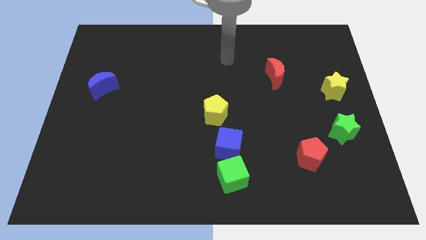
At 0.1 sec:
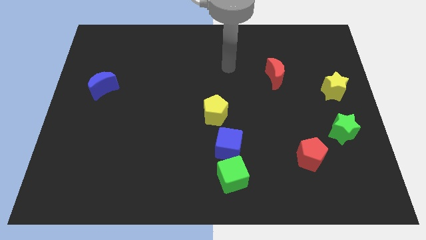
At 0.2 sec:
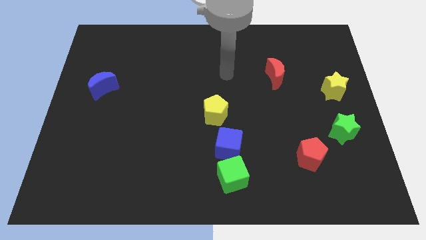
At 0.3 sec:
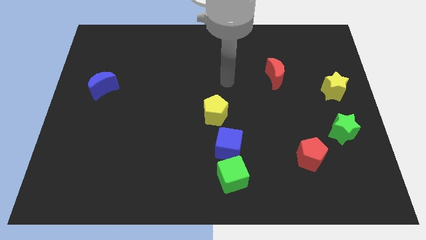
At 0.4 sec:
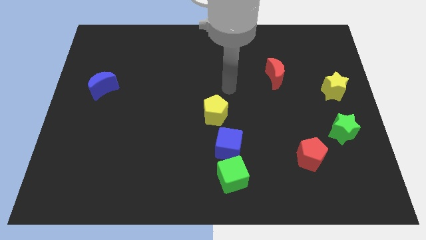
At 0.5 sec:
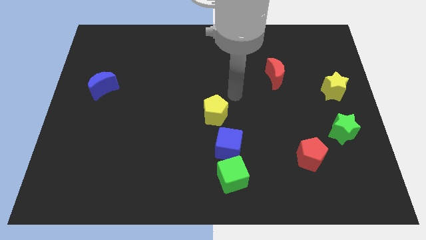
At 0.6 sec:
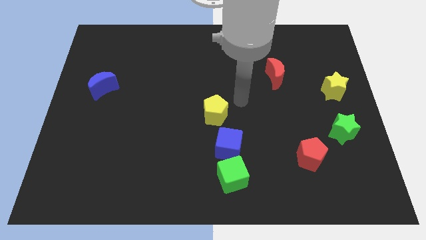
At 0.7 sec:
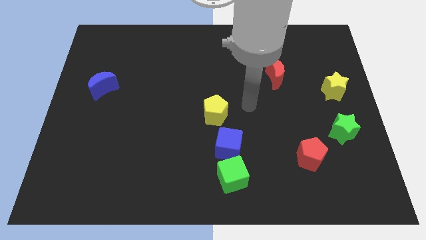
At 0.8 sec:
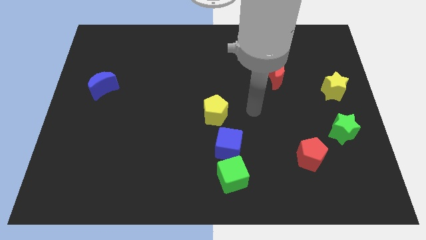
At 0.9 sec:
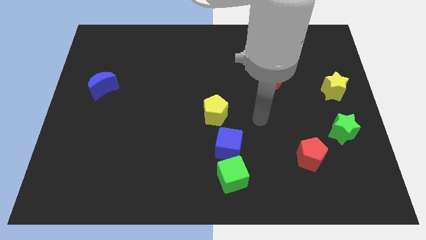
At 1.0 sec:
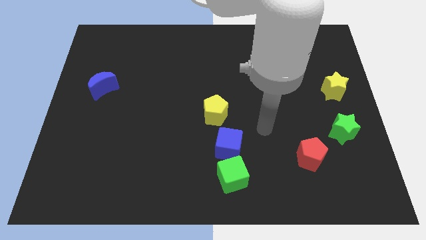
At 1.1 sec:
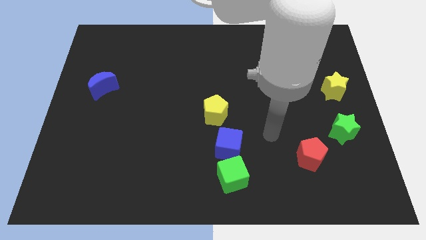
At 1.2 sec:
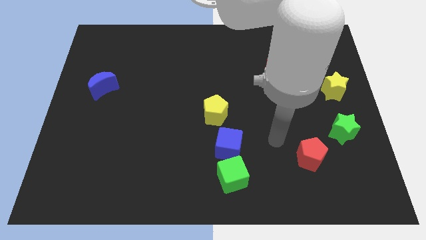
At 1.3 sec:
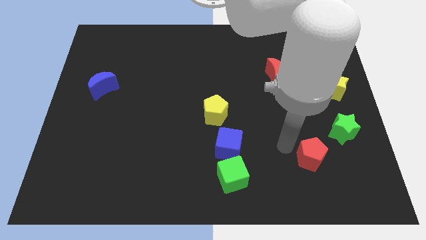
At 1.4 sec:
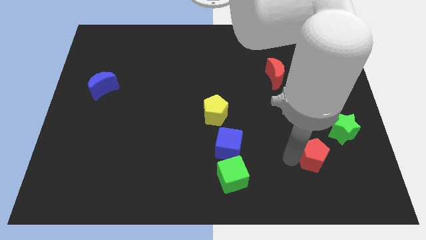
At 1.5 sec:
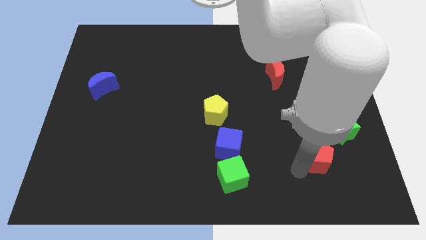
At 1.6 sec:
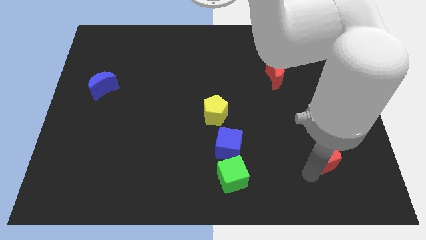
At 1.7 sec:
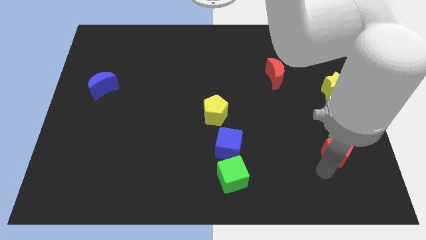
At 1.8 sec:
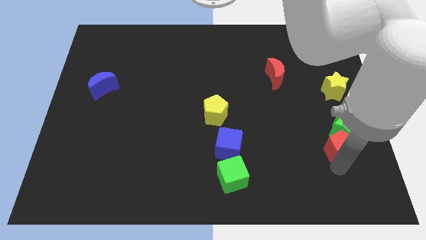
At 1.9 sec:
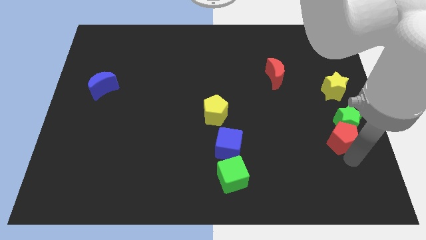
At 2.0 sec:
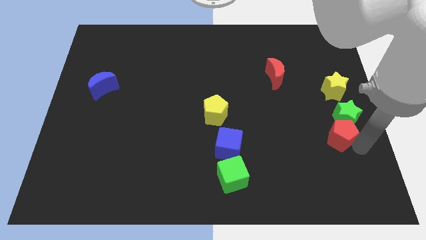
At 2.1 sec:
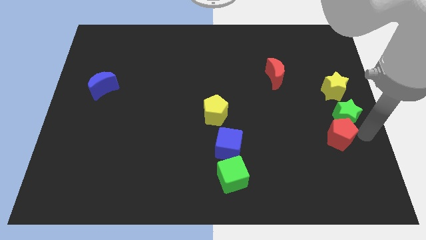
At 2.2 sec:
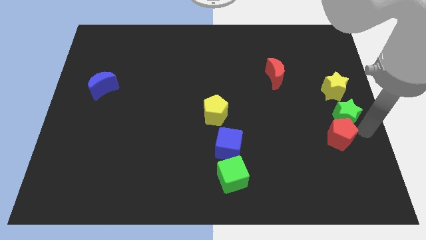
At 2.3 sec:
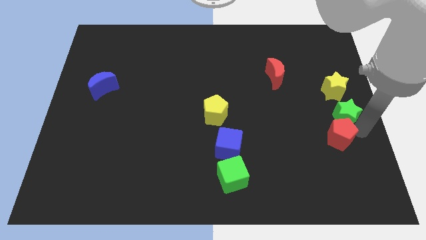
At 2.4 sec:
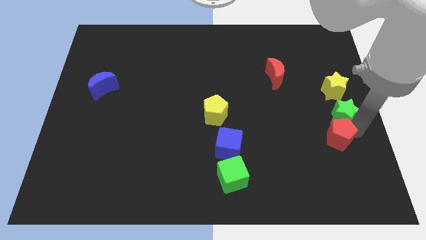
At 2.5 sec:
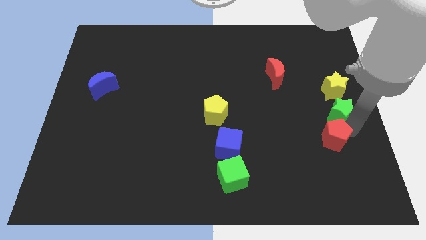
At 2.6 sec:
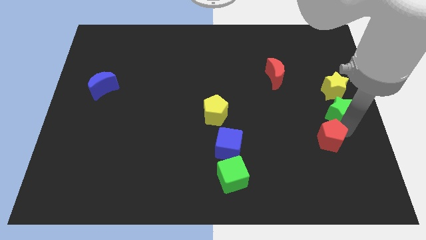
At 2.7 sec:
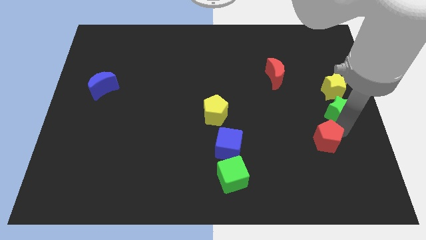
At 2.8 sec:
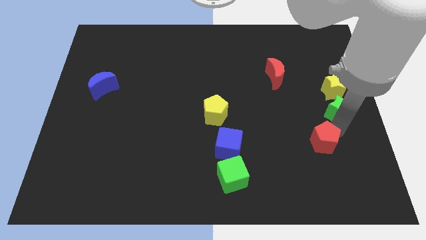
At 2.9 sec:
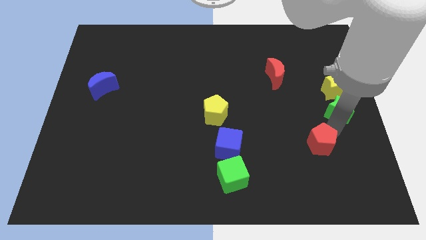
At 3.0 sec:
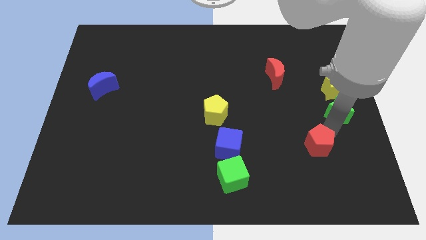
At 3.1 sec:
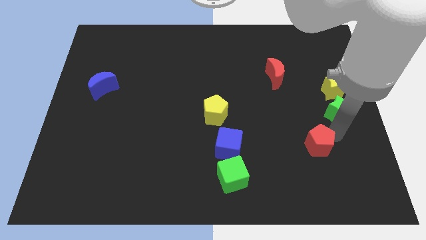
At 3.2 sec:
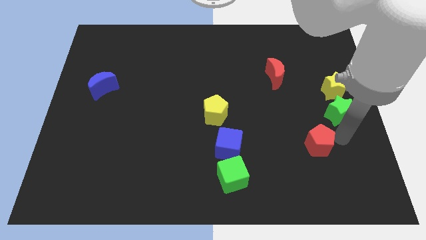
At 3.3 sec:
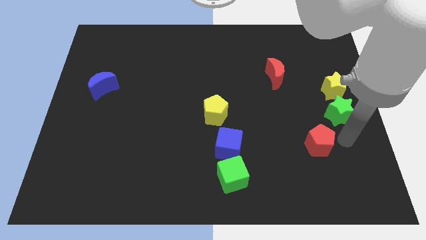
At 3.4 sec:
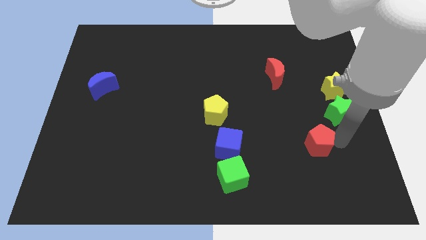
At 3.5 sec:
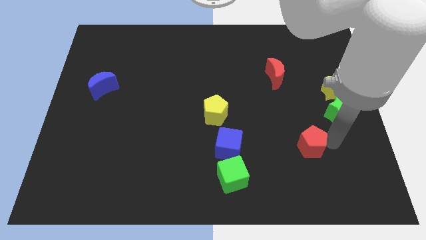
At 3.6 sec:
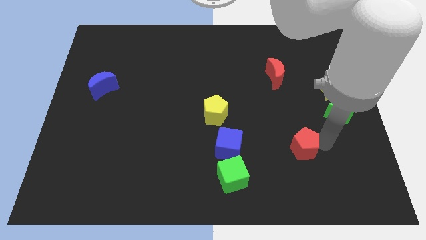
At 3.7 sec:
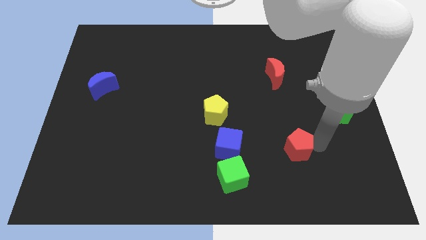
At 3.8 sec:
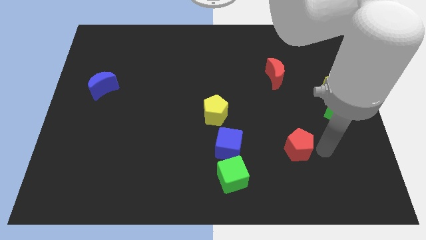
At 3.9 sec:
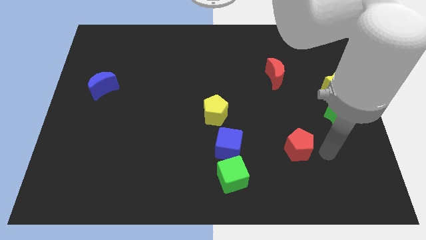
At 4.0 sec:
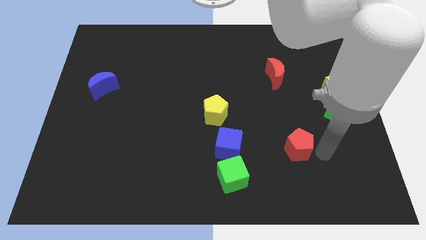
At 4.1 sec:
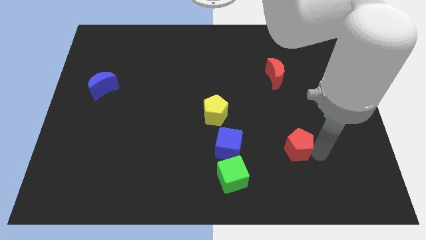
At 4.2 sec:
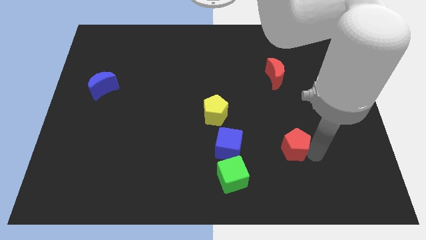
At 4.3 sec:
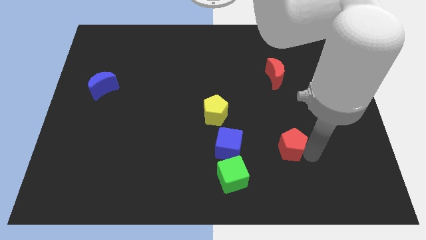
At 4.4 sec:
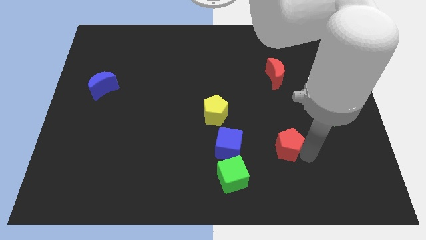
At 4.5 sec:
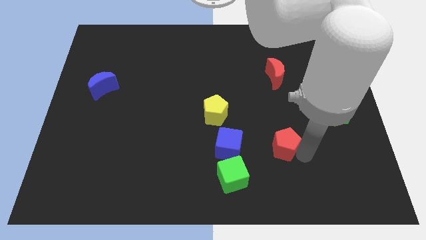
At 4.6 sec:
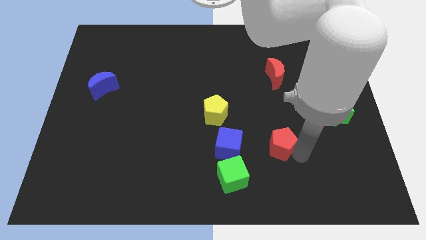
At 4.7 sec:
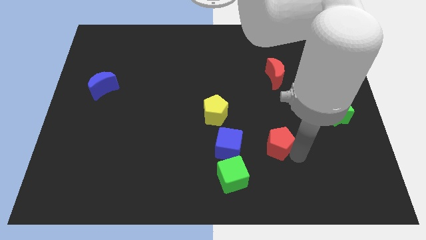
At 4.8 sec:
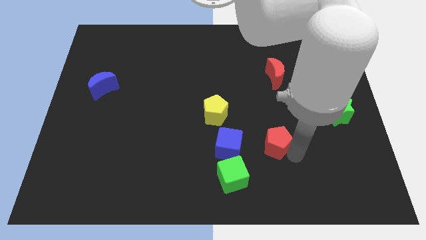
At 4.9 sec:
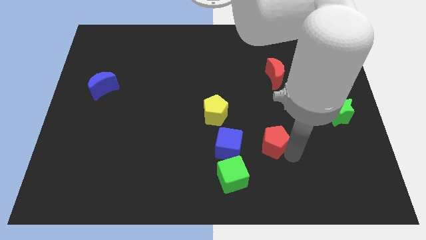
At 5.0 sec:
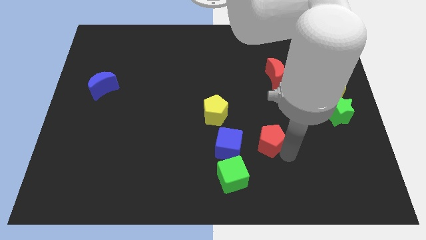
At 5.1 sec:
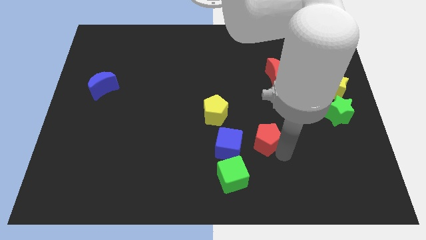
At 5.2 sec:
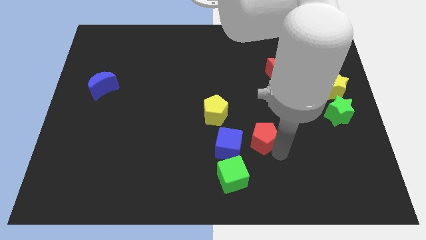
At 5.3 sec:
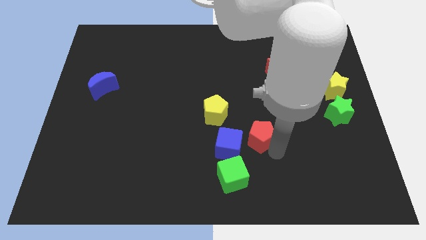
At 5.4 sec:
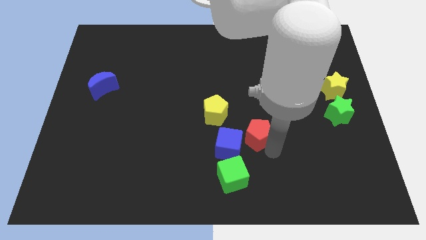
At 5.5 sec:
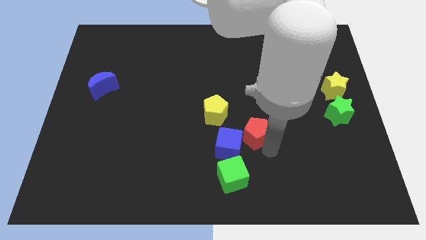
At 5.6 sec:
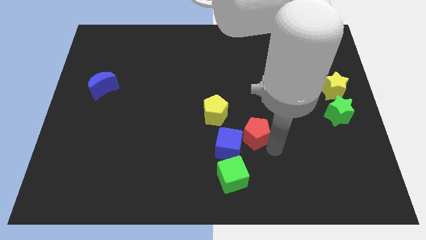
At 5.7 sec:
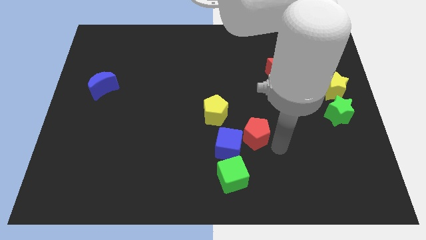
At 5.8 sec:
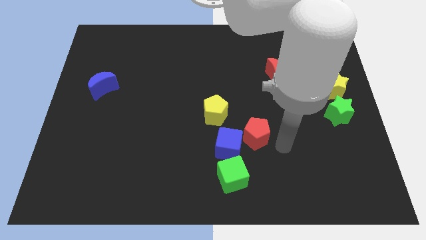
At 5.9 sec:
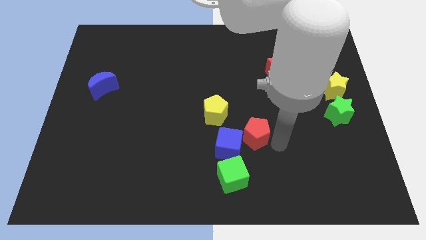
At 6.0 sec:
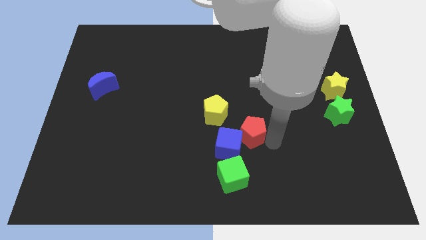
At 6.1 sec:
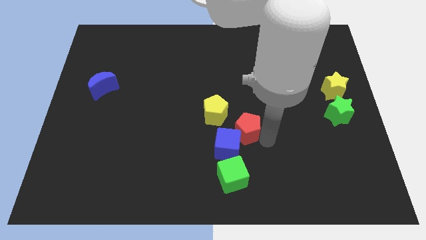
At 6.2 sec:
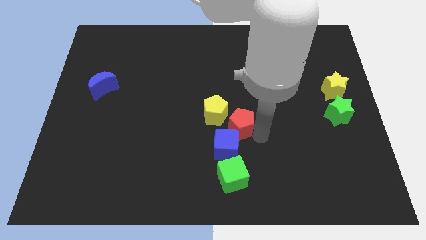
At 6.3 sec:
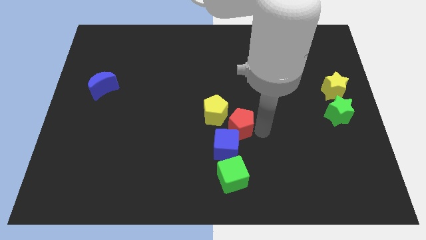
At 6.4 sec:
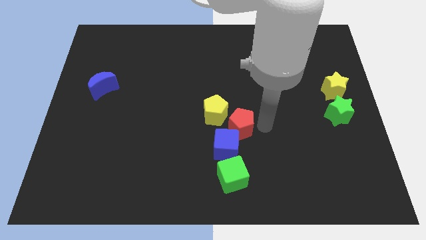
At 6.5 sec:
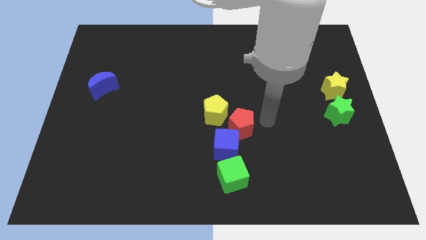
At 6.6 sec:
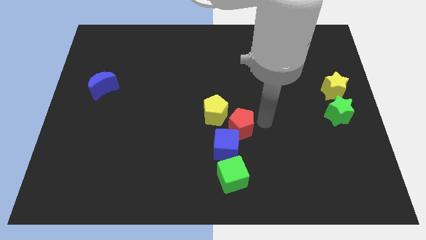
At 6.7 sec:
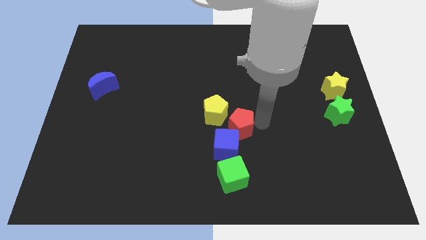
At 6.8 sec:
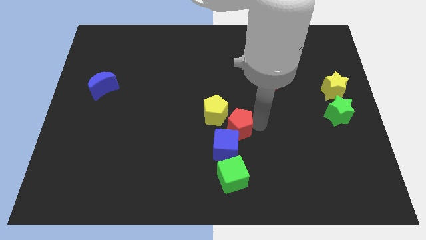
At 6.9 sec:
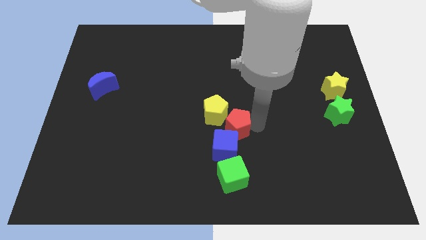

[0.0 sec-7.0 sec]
move the red pentagon to the bottom of the yellow pentagon

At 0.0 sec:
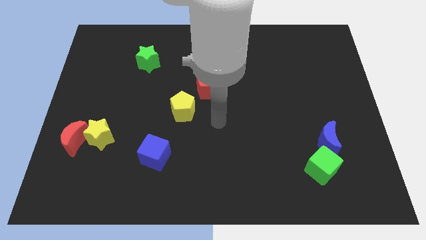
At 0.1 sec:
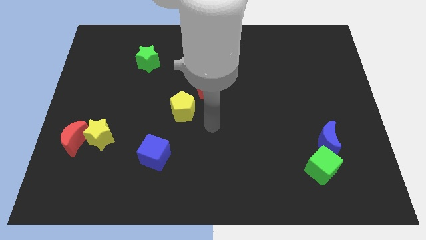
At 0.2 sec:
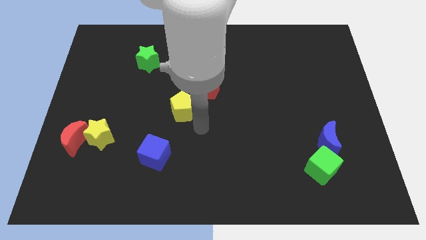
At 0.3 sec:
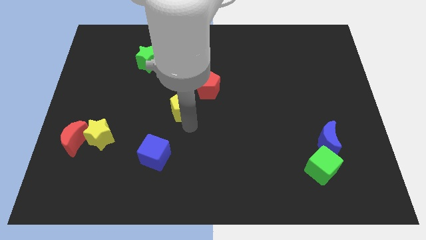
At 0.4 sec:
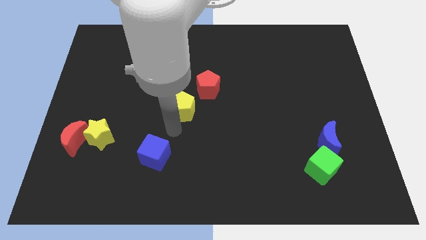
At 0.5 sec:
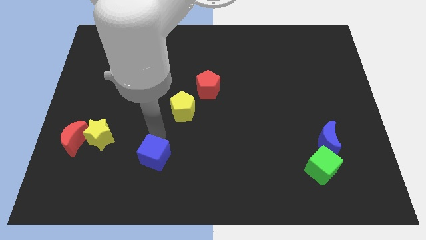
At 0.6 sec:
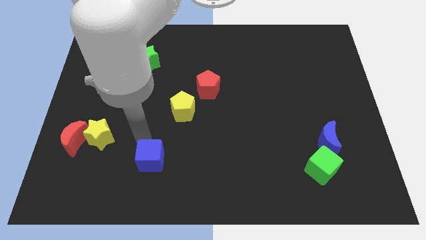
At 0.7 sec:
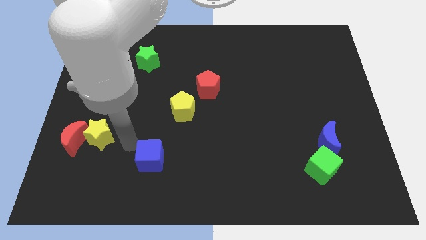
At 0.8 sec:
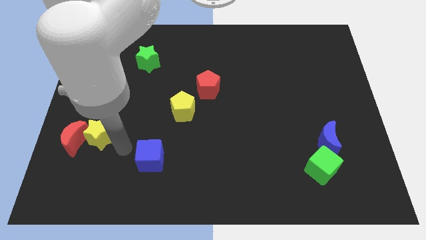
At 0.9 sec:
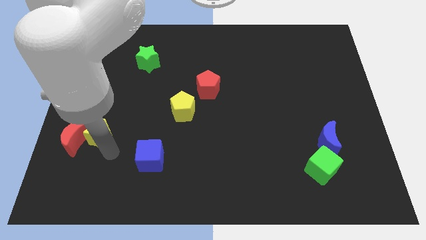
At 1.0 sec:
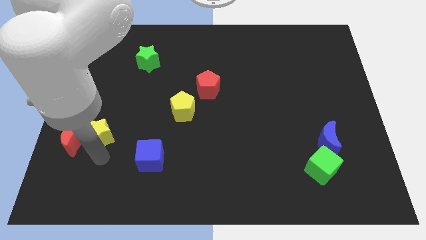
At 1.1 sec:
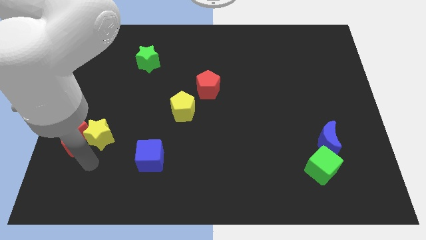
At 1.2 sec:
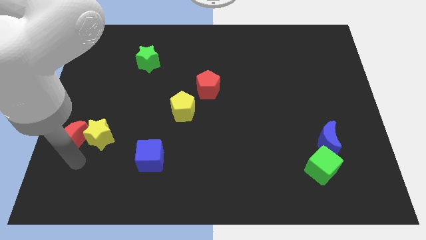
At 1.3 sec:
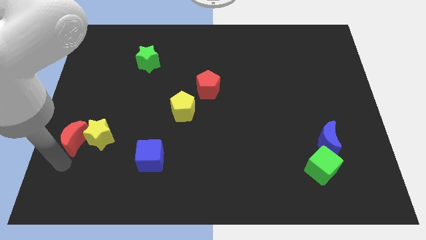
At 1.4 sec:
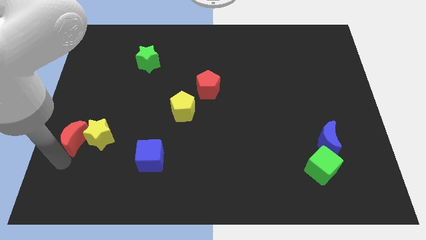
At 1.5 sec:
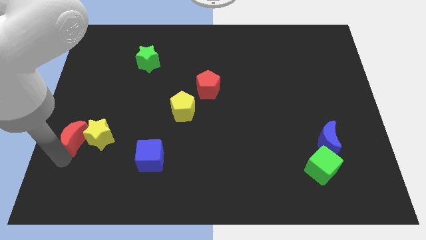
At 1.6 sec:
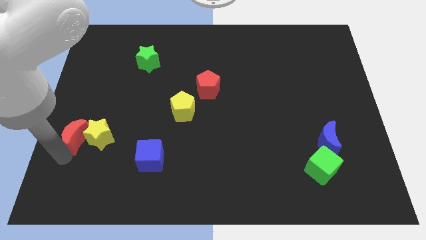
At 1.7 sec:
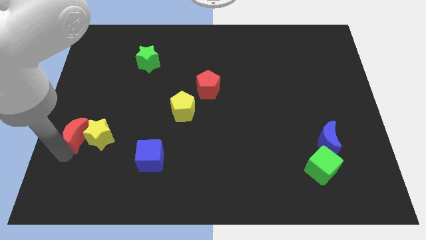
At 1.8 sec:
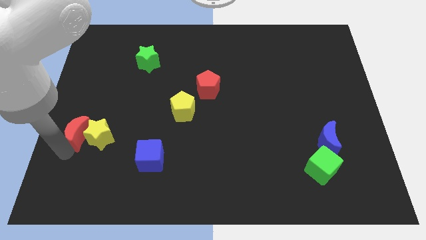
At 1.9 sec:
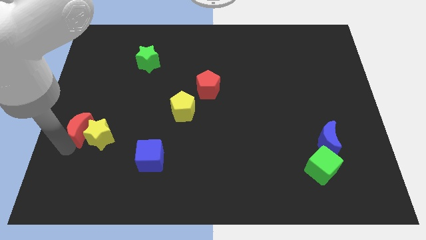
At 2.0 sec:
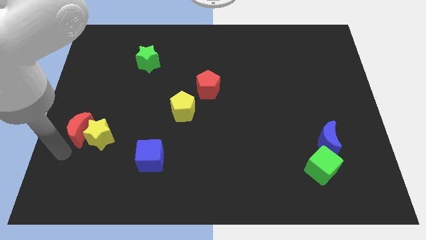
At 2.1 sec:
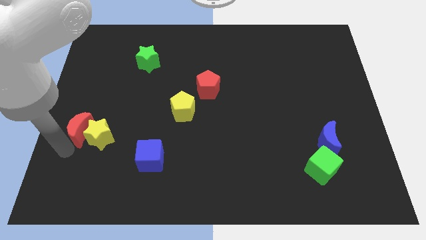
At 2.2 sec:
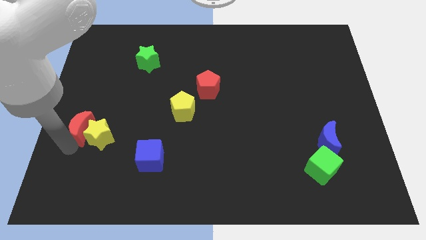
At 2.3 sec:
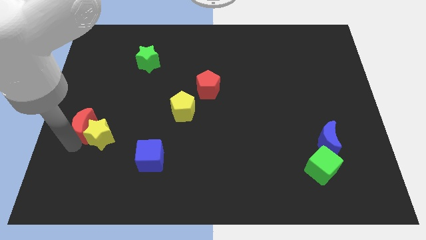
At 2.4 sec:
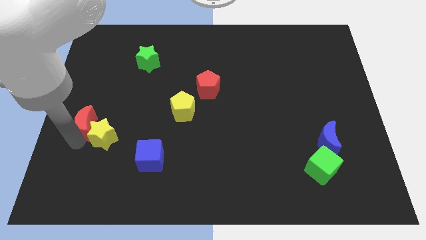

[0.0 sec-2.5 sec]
slide the red moon to the top side of the yellow star
